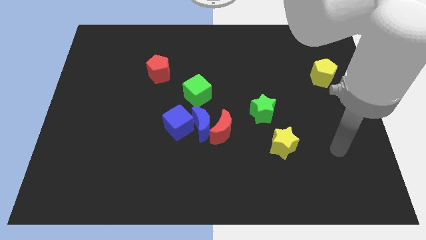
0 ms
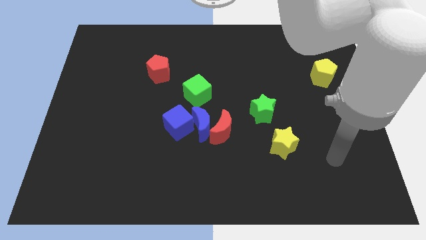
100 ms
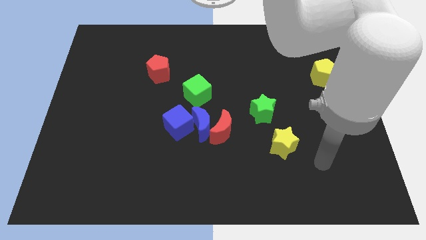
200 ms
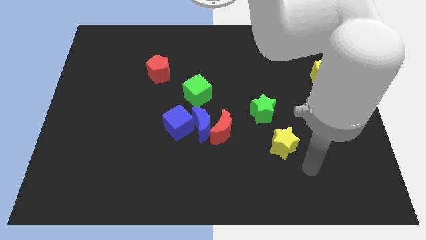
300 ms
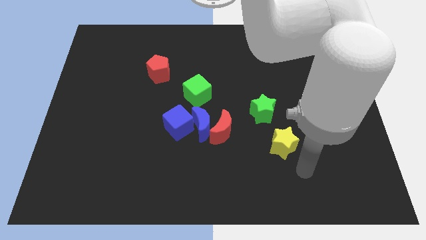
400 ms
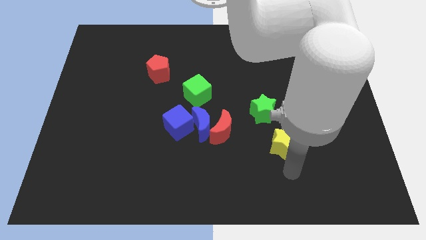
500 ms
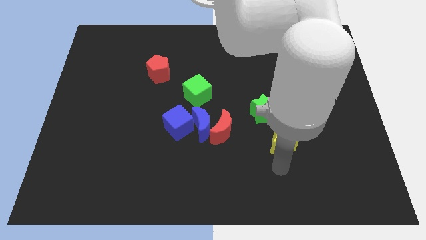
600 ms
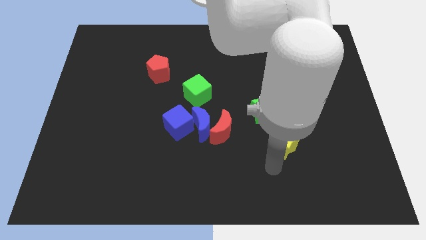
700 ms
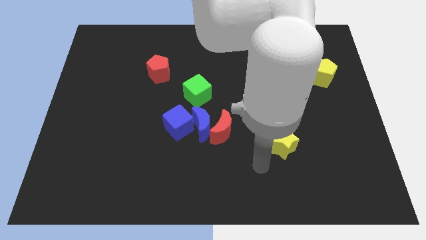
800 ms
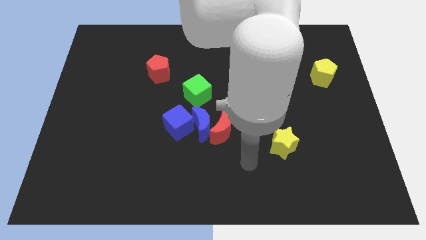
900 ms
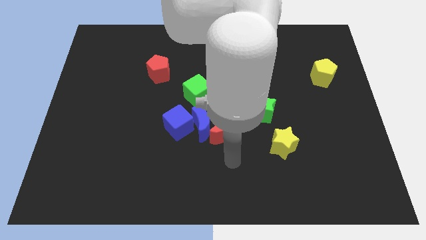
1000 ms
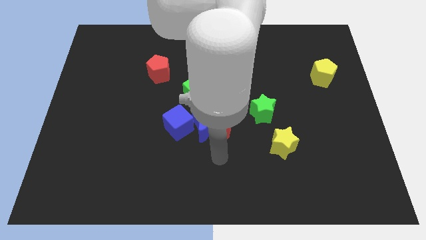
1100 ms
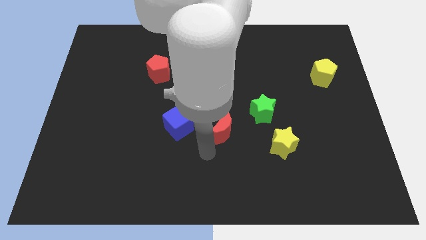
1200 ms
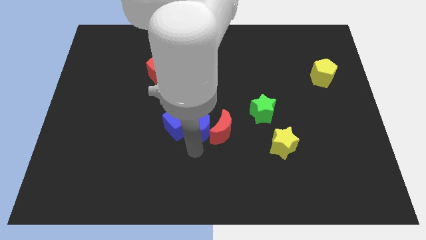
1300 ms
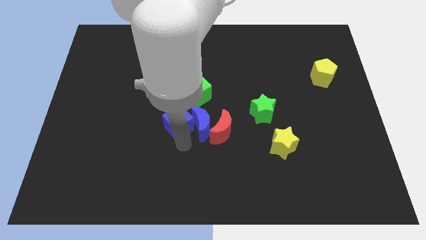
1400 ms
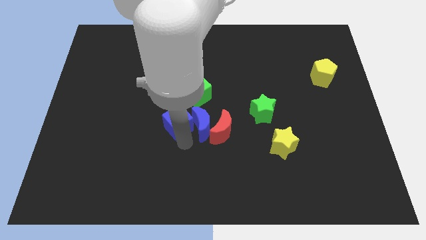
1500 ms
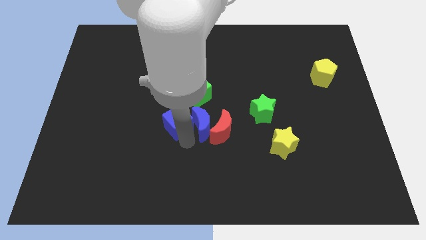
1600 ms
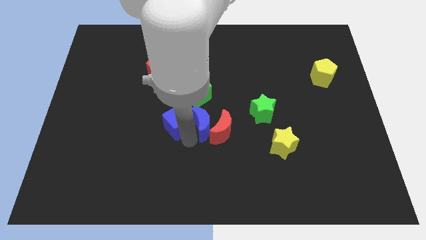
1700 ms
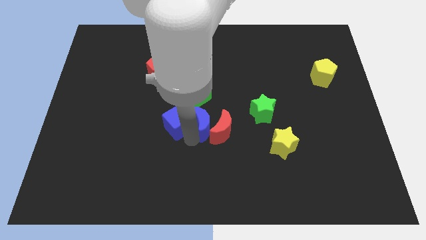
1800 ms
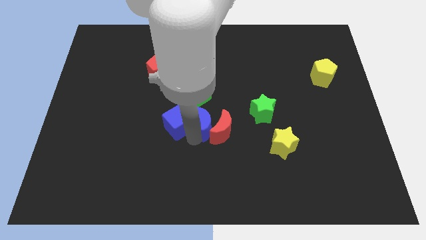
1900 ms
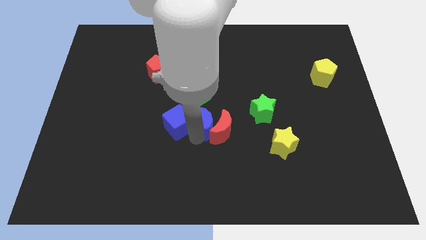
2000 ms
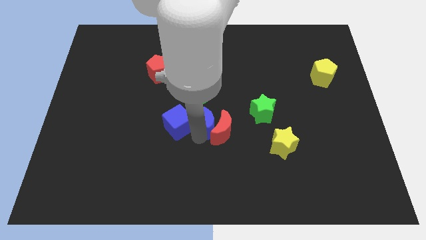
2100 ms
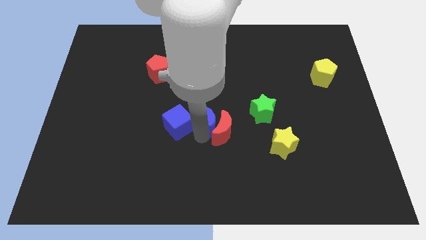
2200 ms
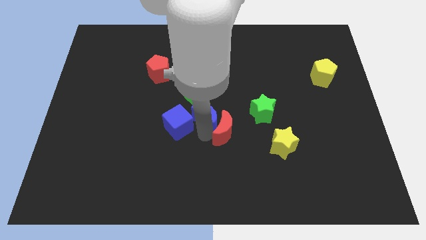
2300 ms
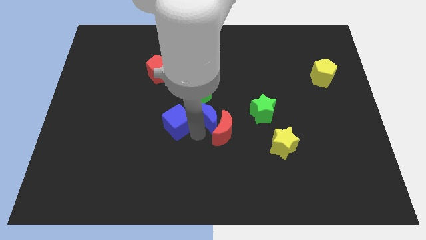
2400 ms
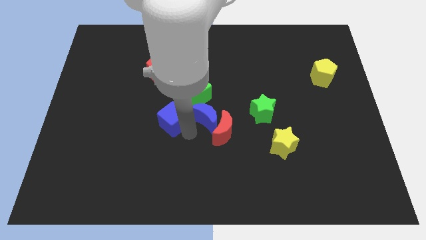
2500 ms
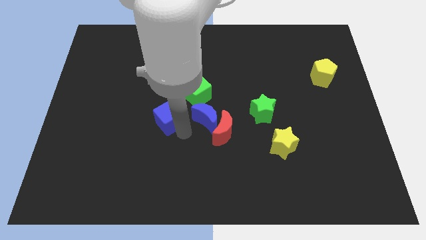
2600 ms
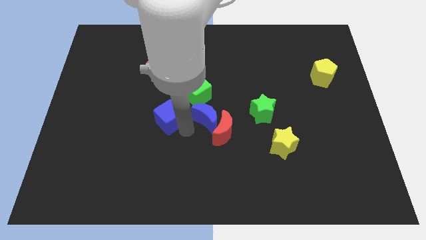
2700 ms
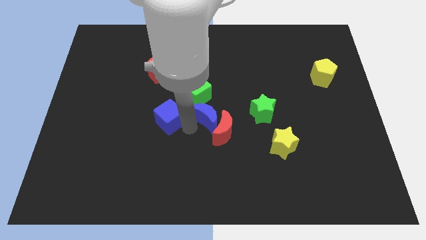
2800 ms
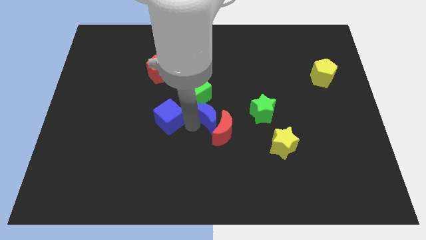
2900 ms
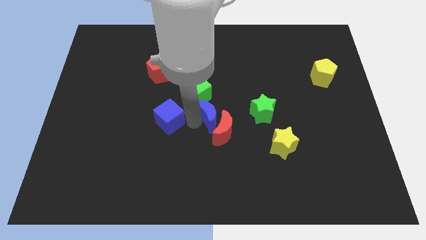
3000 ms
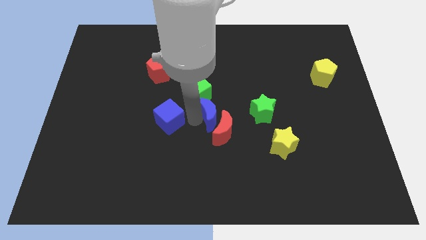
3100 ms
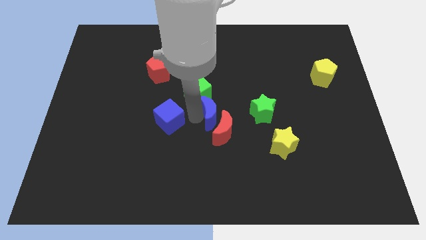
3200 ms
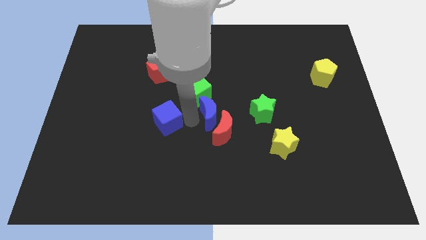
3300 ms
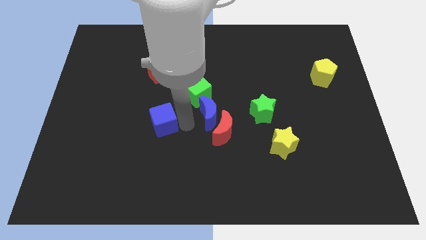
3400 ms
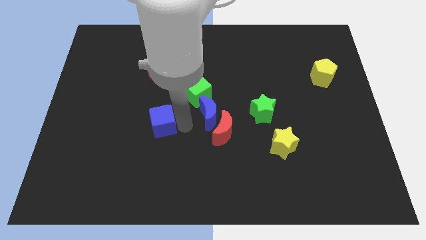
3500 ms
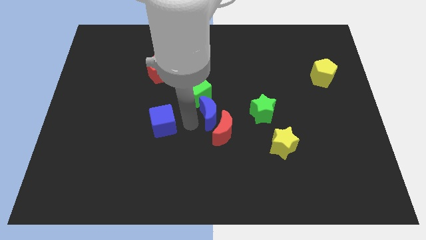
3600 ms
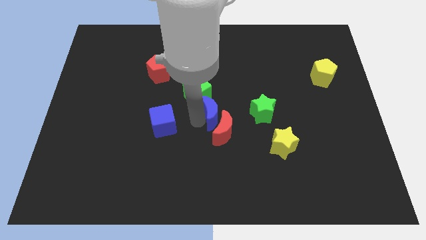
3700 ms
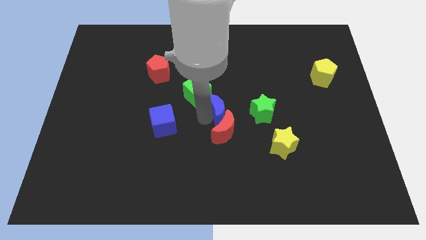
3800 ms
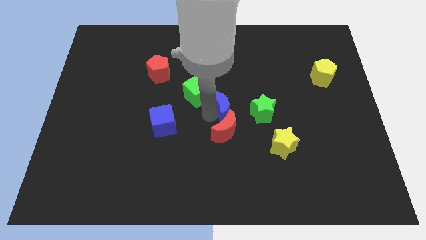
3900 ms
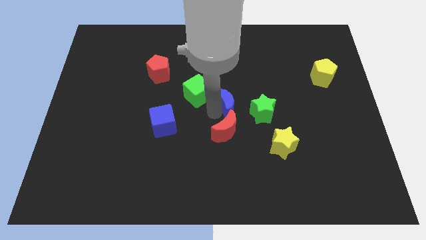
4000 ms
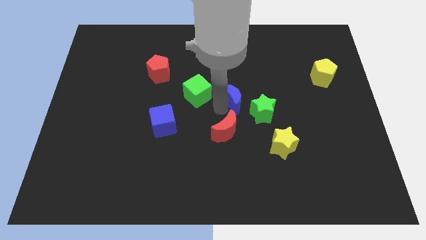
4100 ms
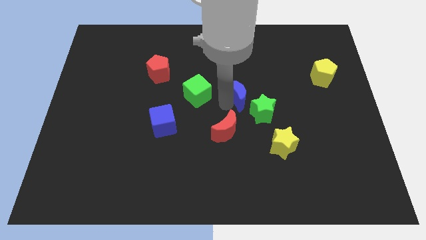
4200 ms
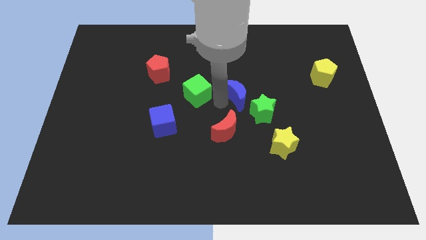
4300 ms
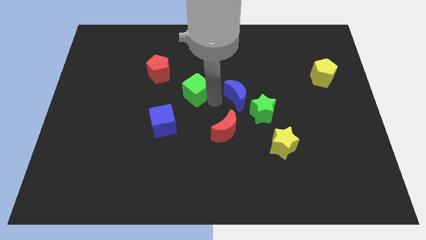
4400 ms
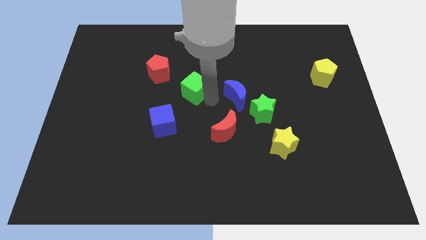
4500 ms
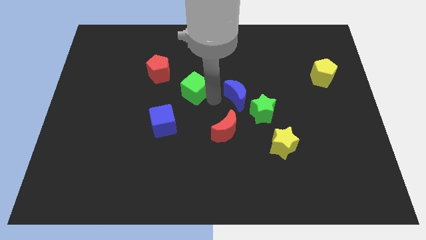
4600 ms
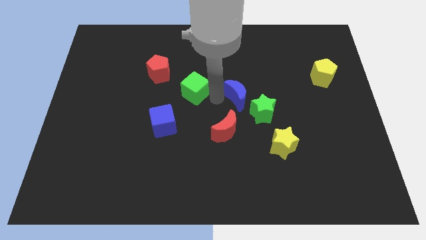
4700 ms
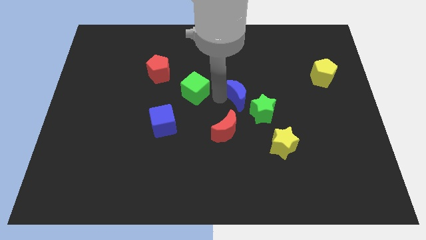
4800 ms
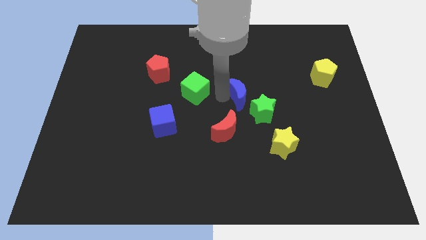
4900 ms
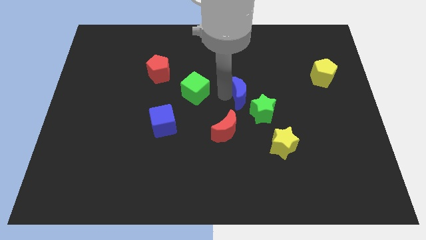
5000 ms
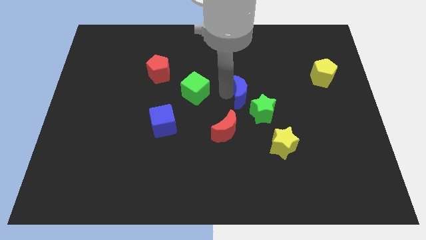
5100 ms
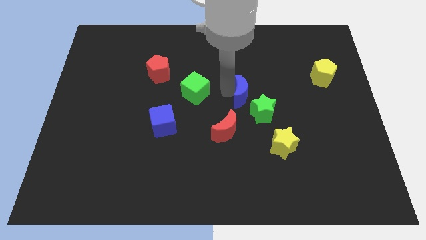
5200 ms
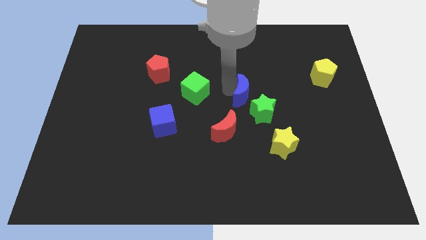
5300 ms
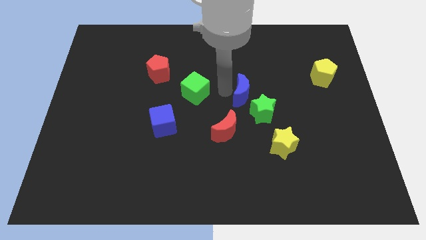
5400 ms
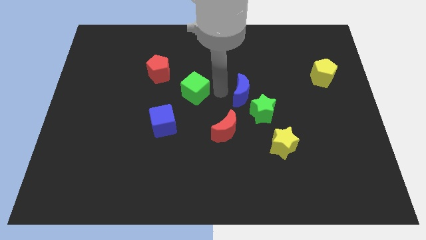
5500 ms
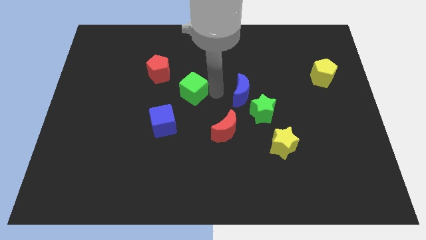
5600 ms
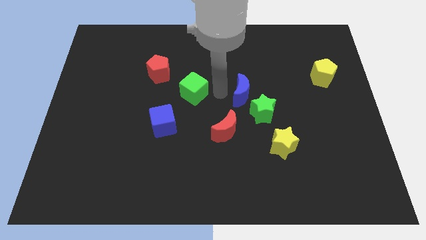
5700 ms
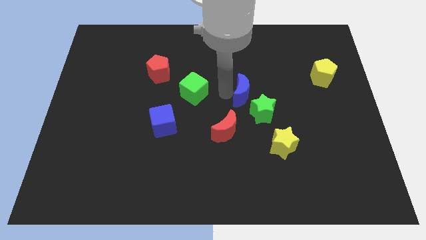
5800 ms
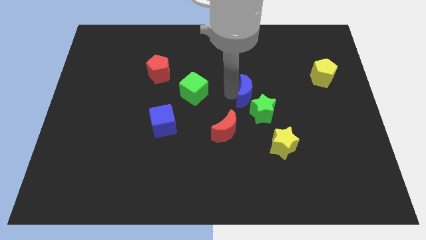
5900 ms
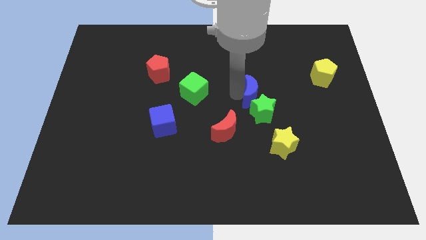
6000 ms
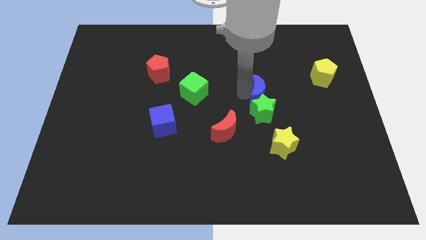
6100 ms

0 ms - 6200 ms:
push the blue moon above the yellow star
